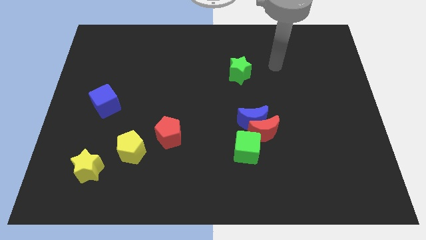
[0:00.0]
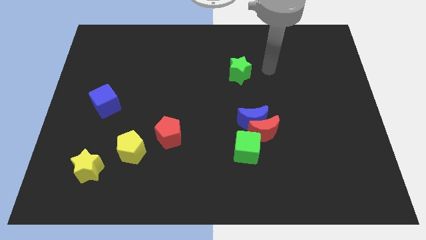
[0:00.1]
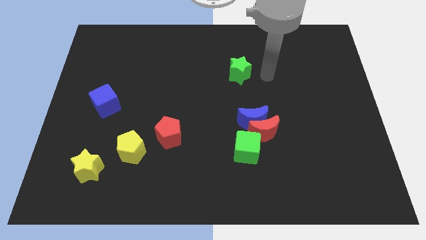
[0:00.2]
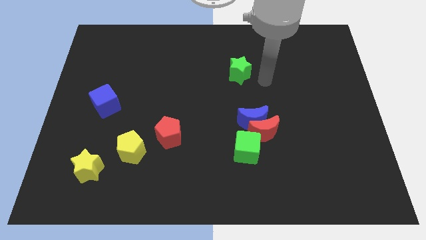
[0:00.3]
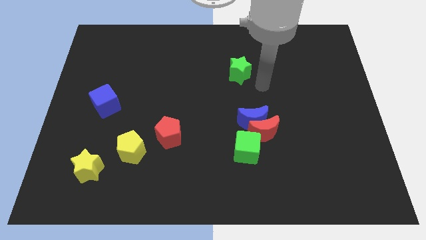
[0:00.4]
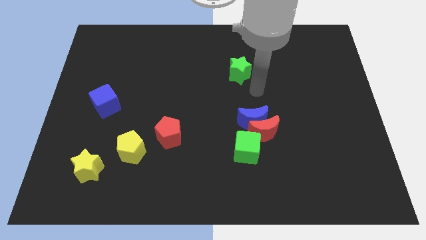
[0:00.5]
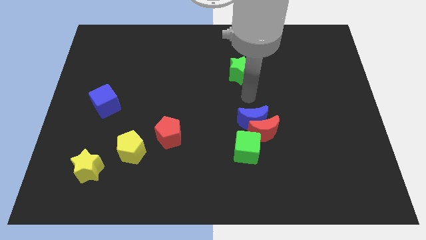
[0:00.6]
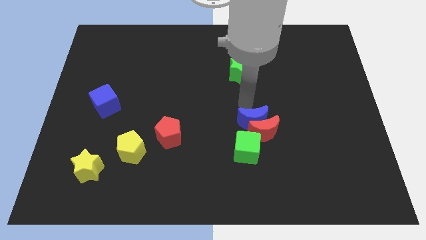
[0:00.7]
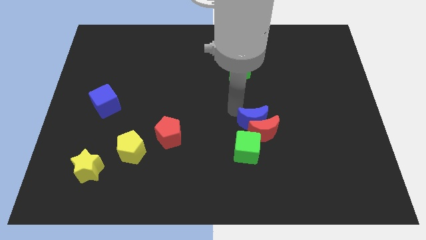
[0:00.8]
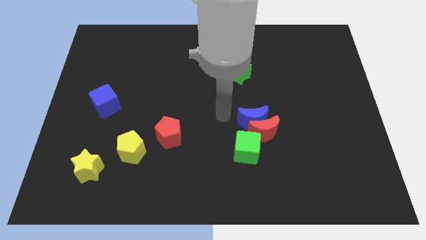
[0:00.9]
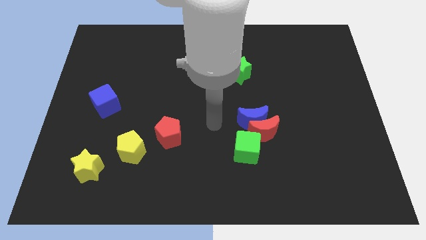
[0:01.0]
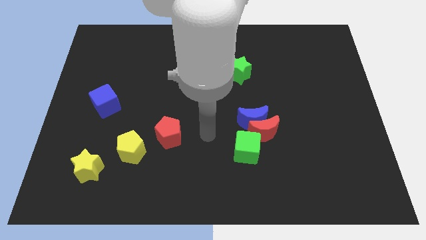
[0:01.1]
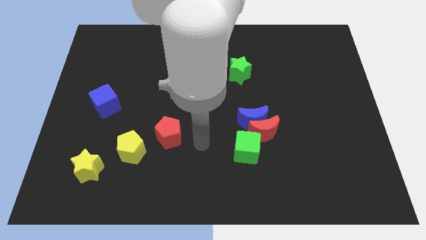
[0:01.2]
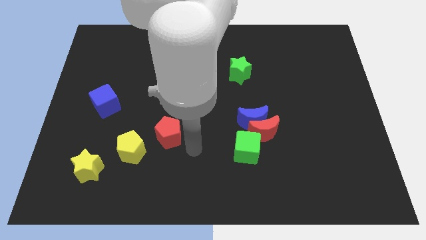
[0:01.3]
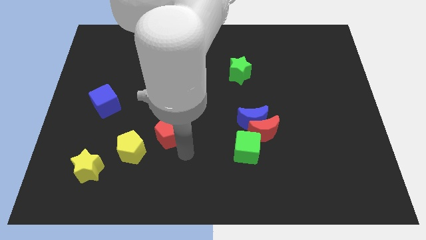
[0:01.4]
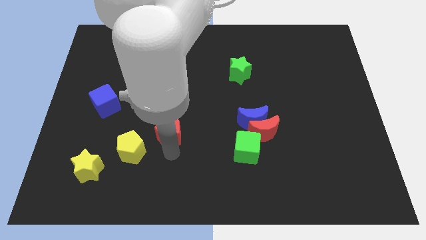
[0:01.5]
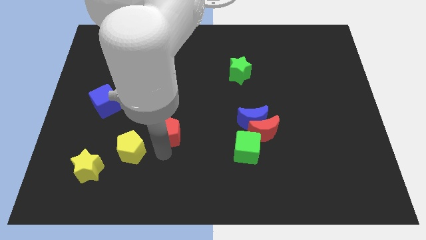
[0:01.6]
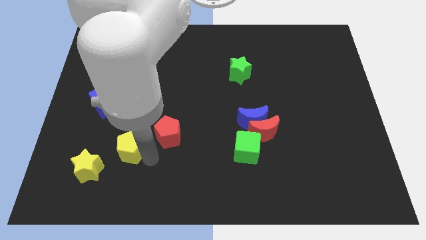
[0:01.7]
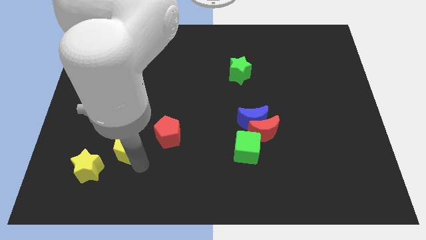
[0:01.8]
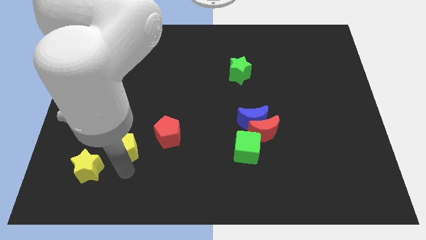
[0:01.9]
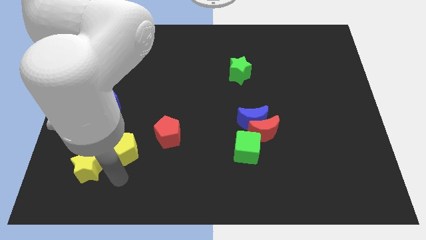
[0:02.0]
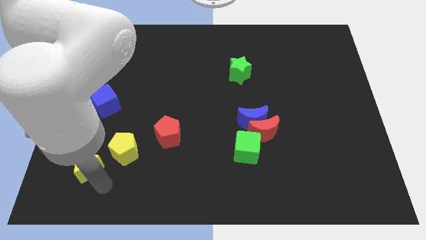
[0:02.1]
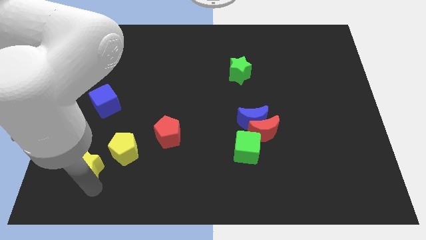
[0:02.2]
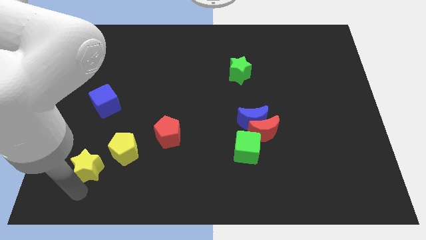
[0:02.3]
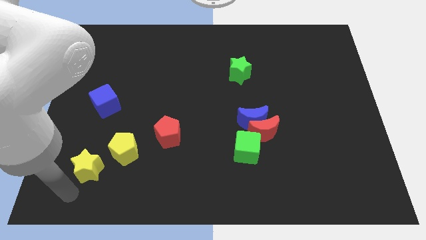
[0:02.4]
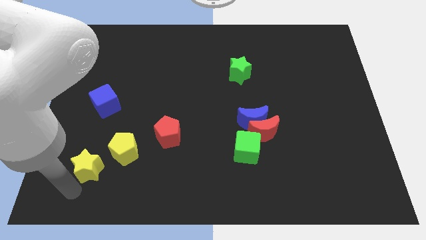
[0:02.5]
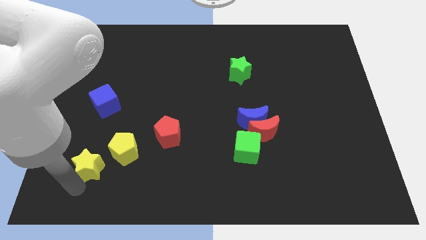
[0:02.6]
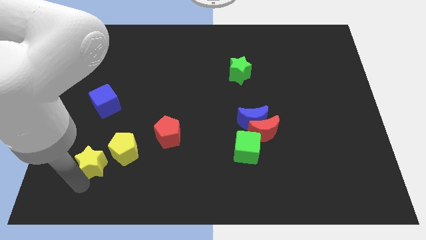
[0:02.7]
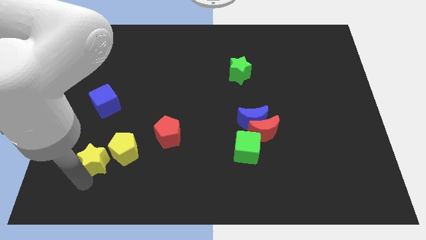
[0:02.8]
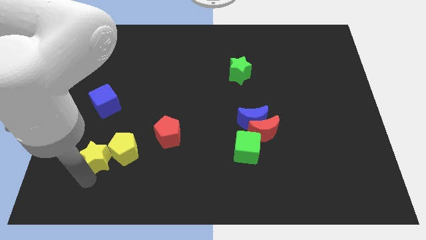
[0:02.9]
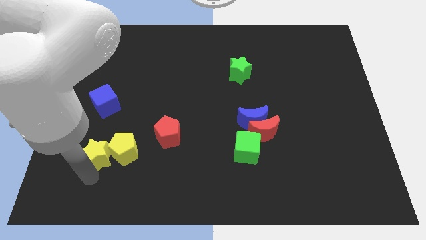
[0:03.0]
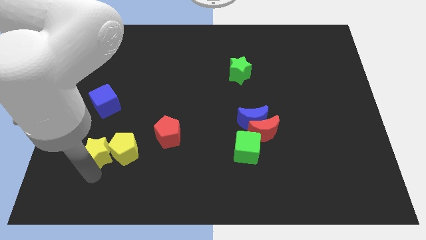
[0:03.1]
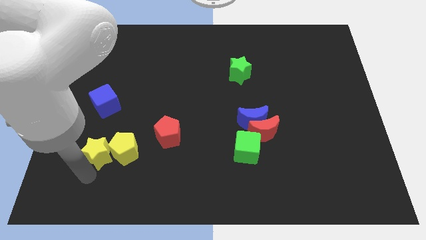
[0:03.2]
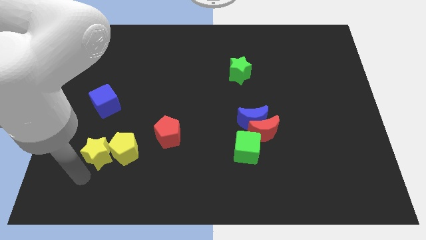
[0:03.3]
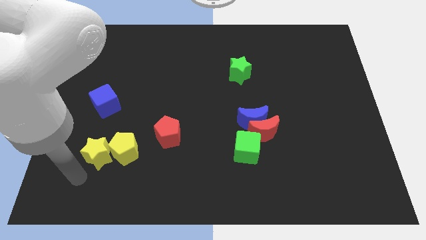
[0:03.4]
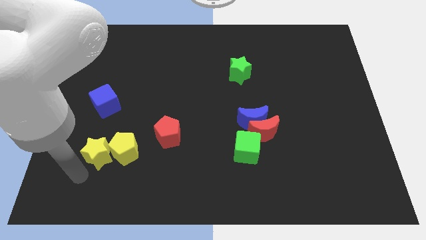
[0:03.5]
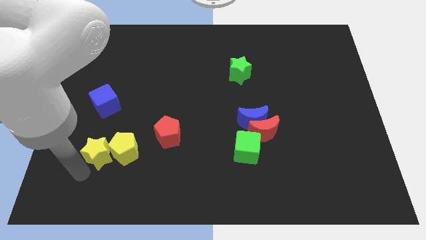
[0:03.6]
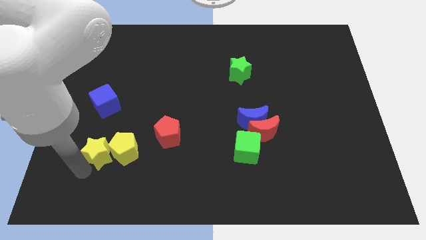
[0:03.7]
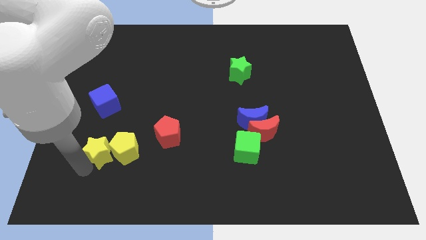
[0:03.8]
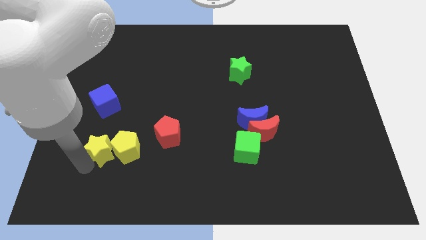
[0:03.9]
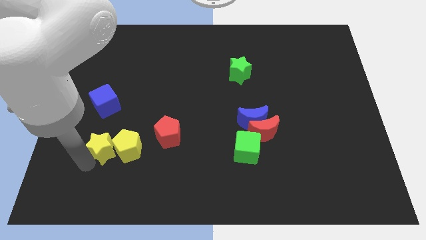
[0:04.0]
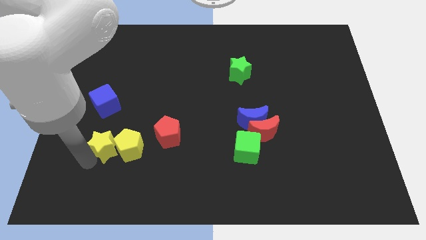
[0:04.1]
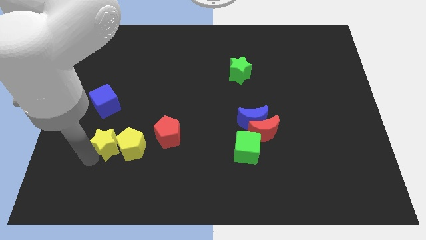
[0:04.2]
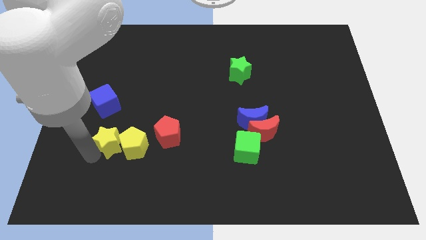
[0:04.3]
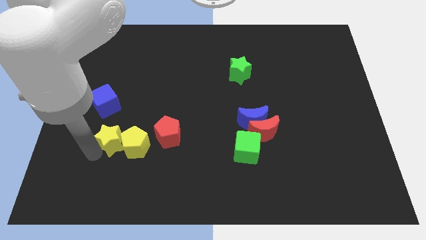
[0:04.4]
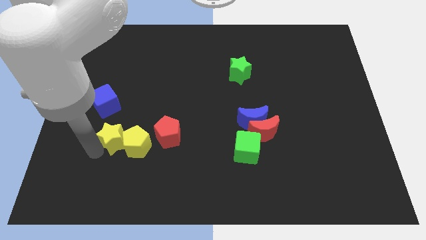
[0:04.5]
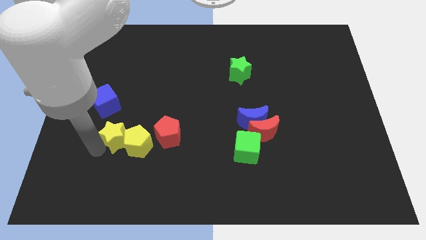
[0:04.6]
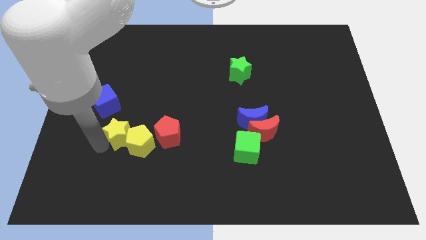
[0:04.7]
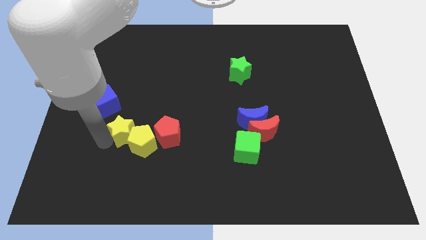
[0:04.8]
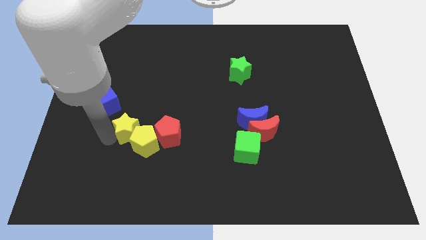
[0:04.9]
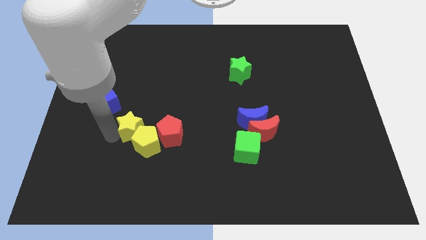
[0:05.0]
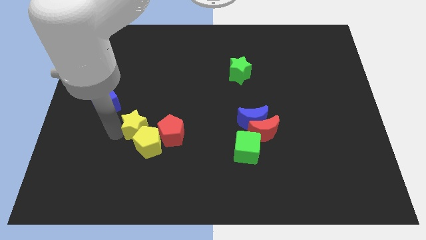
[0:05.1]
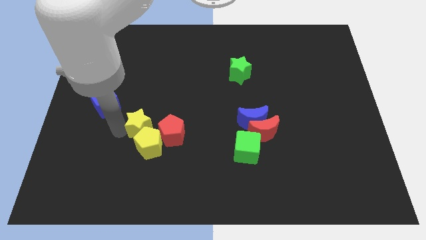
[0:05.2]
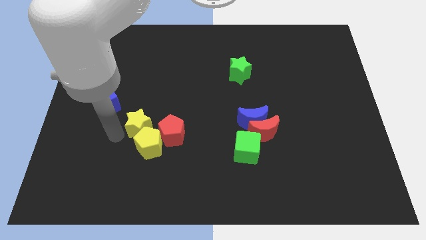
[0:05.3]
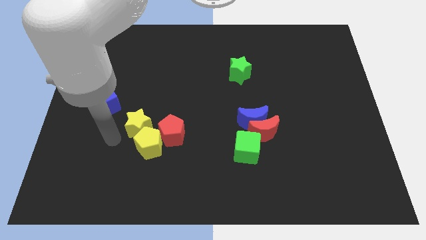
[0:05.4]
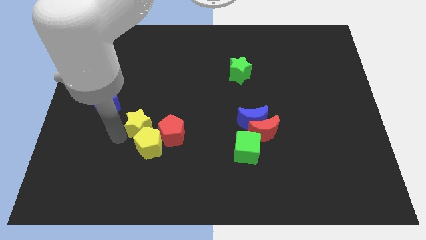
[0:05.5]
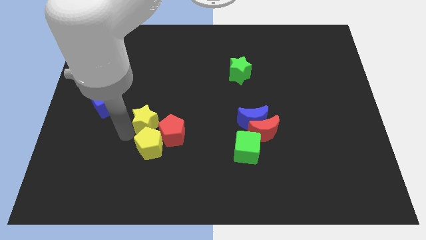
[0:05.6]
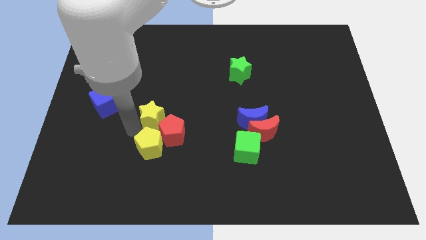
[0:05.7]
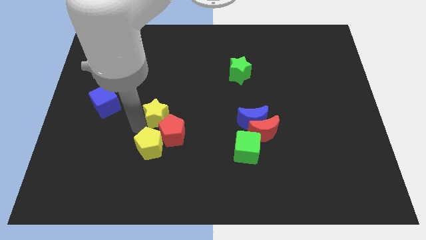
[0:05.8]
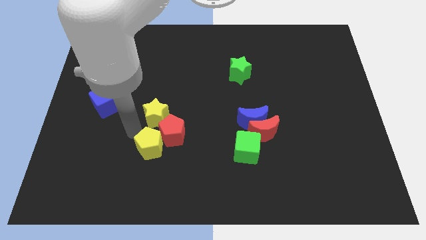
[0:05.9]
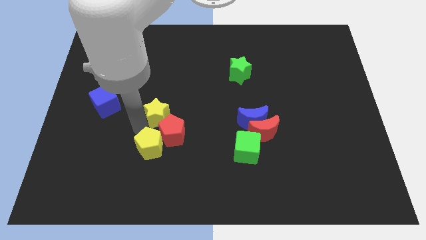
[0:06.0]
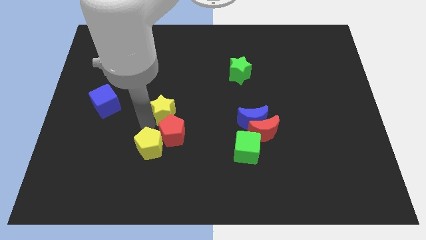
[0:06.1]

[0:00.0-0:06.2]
move the yellow star up and right

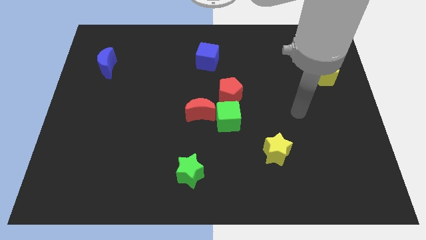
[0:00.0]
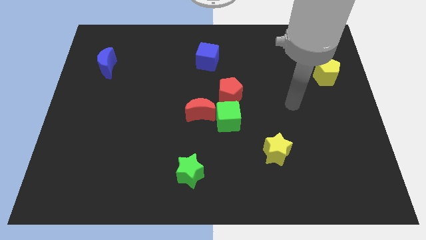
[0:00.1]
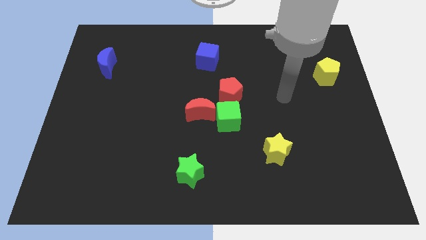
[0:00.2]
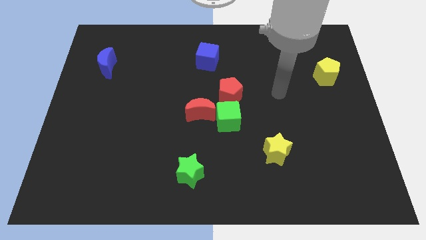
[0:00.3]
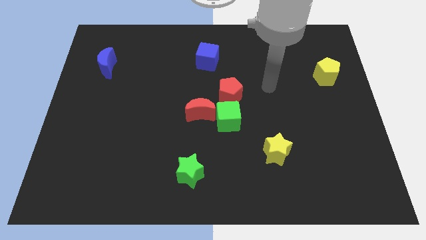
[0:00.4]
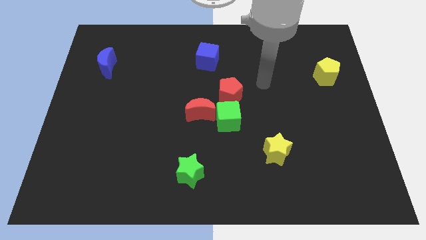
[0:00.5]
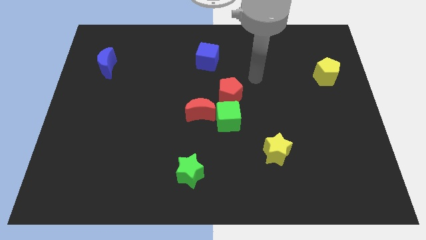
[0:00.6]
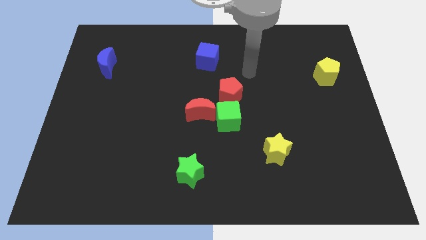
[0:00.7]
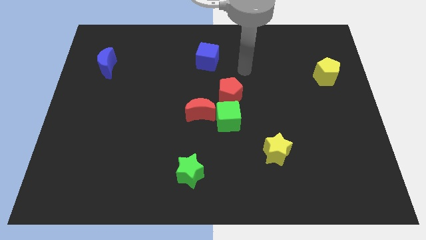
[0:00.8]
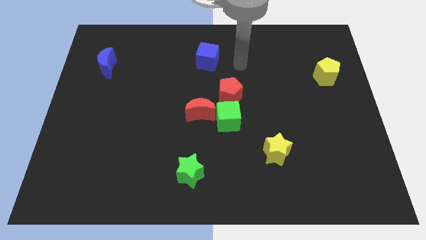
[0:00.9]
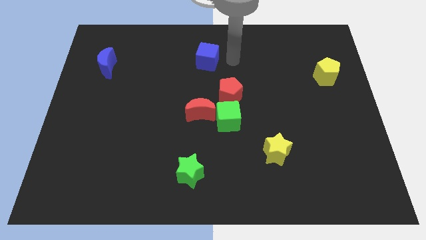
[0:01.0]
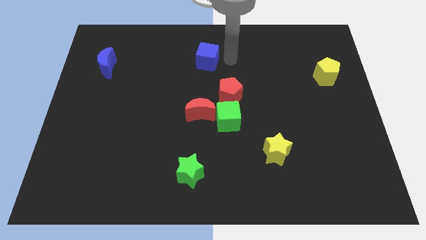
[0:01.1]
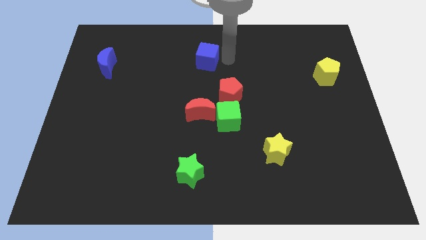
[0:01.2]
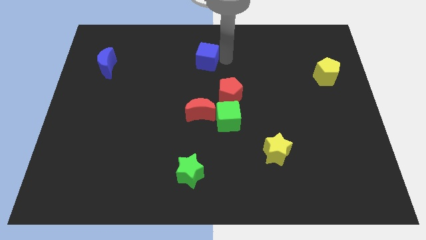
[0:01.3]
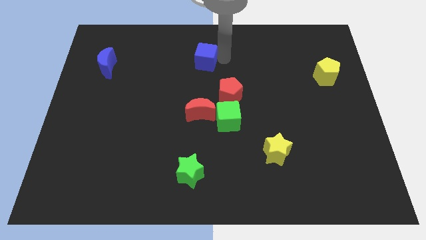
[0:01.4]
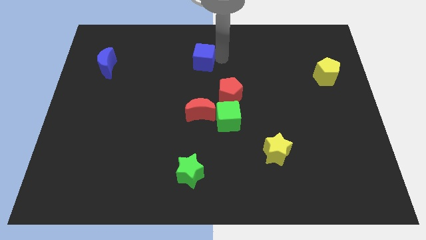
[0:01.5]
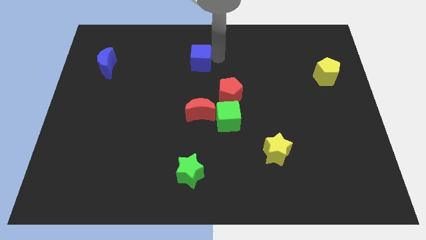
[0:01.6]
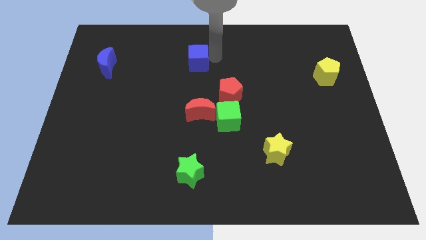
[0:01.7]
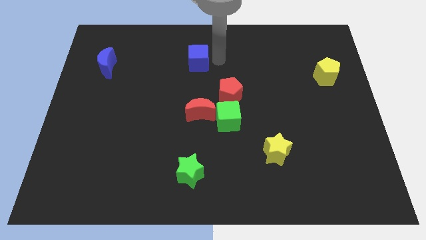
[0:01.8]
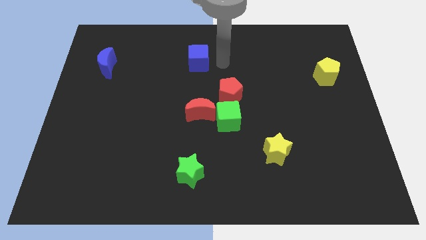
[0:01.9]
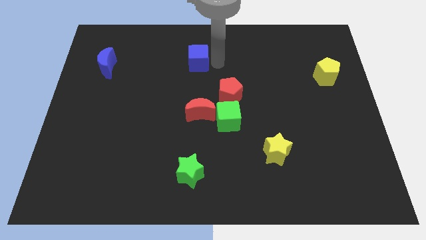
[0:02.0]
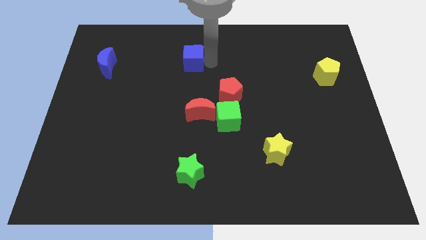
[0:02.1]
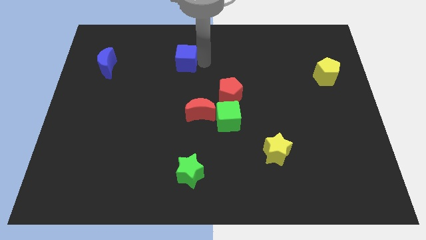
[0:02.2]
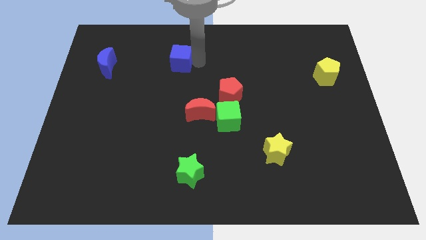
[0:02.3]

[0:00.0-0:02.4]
slide the blue cube left slightly
